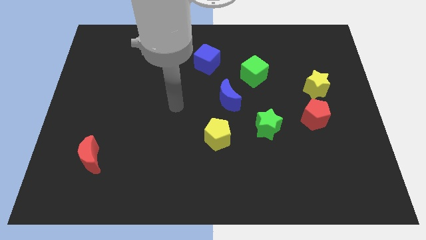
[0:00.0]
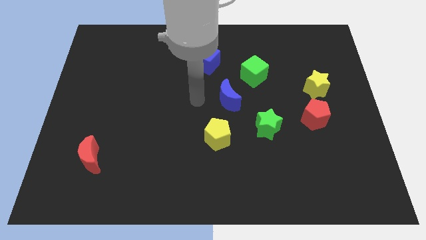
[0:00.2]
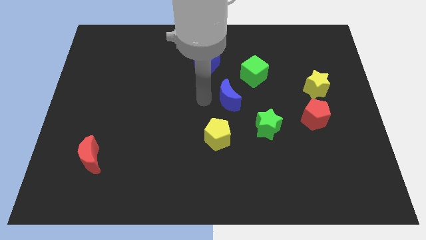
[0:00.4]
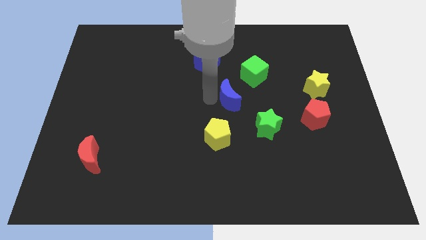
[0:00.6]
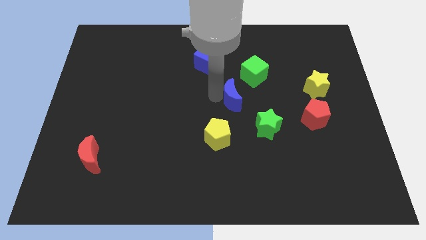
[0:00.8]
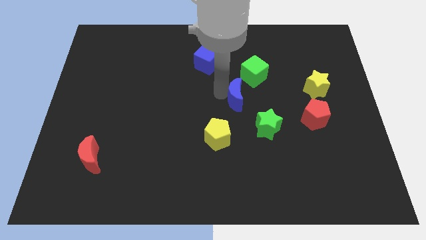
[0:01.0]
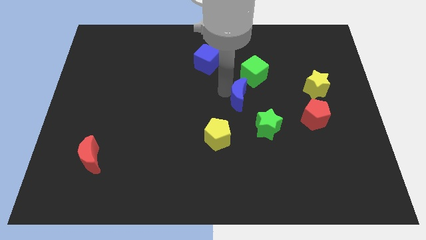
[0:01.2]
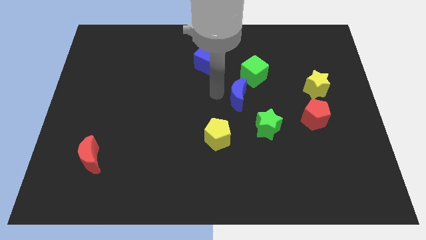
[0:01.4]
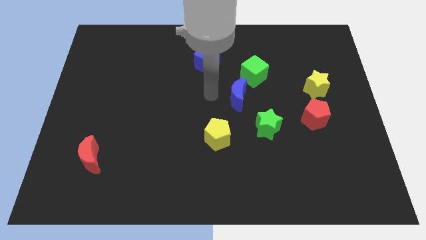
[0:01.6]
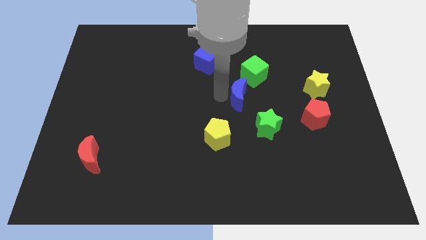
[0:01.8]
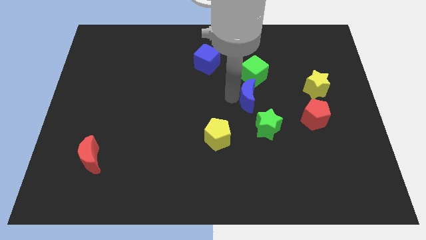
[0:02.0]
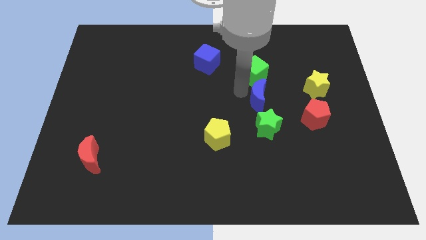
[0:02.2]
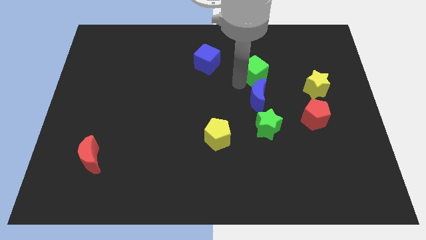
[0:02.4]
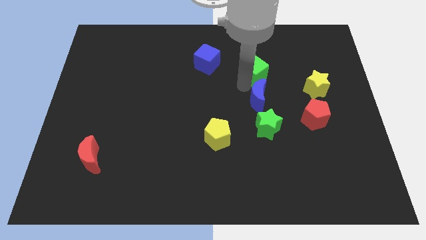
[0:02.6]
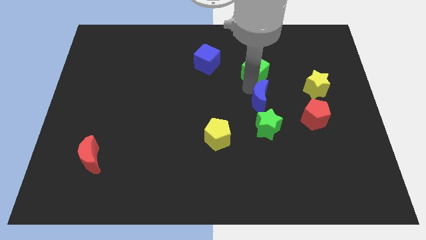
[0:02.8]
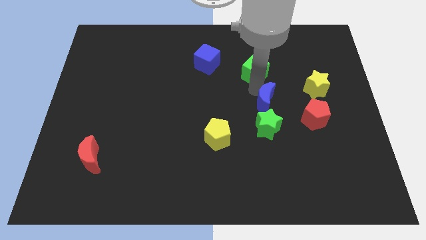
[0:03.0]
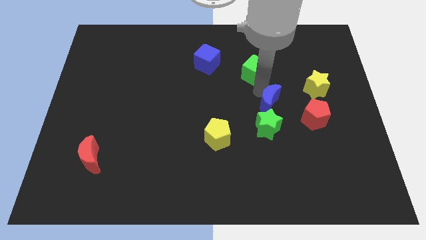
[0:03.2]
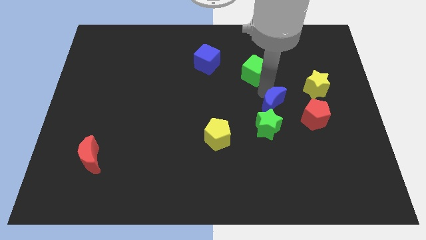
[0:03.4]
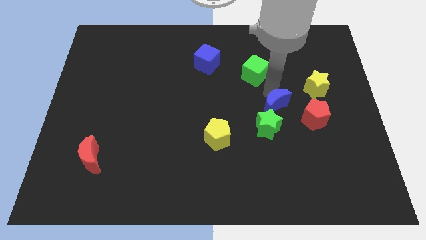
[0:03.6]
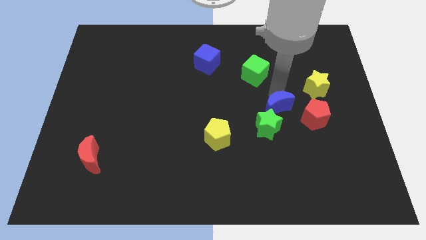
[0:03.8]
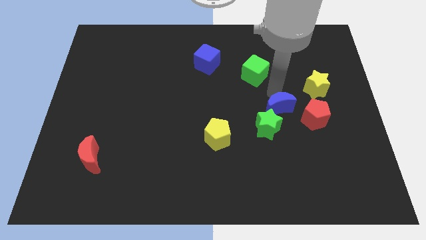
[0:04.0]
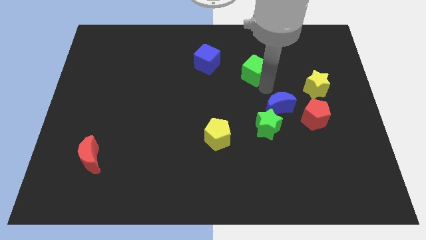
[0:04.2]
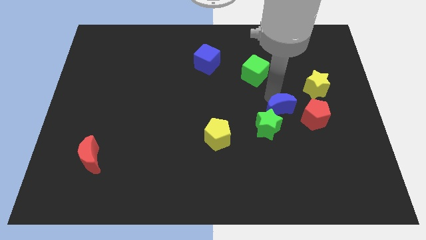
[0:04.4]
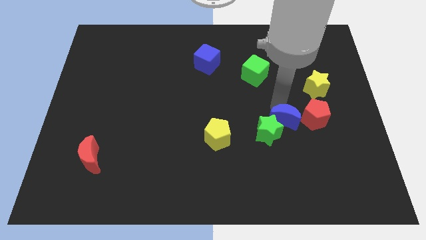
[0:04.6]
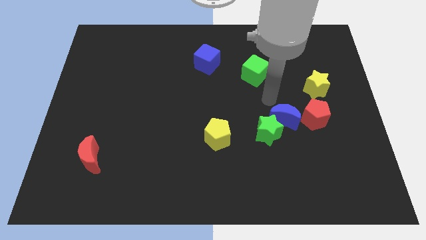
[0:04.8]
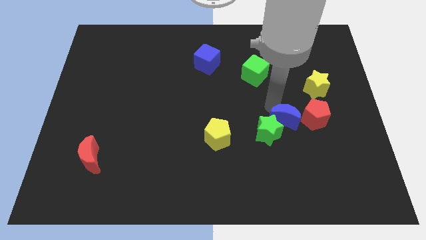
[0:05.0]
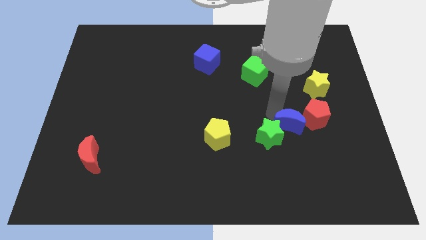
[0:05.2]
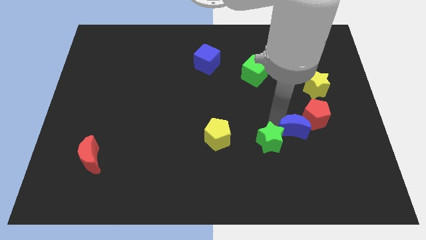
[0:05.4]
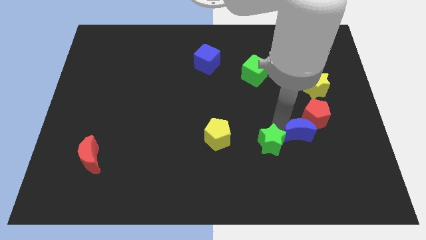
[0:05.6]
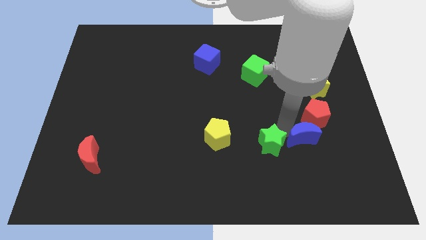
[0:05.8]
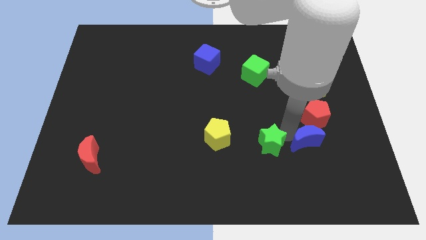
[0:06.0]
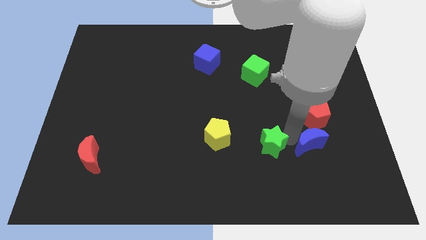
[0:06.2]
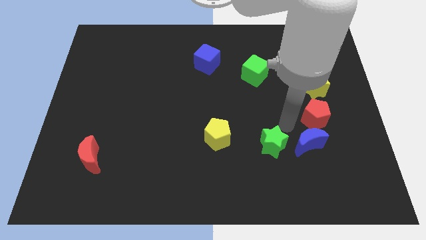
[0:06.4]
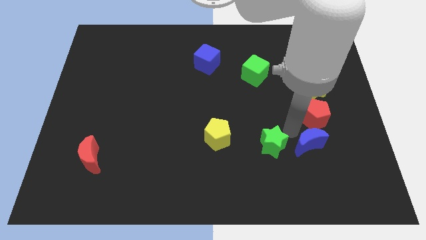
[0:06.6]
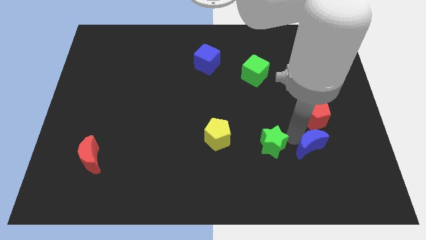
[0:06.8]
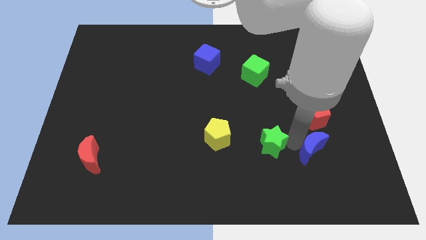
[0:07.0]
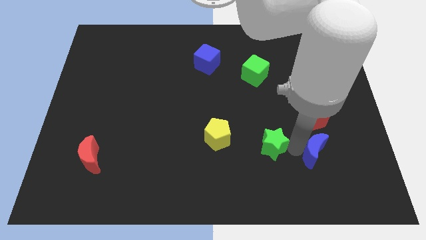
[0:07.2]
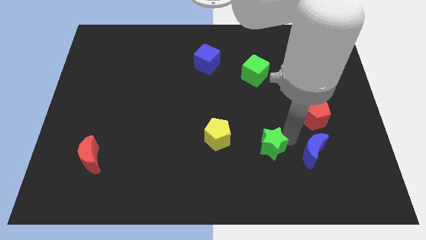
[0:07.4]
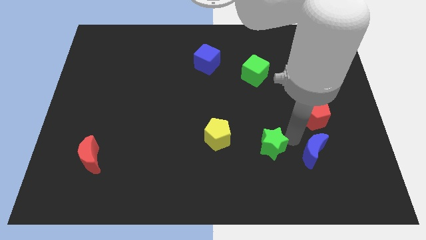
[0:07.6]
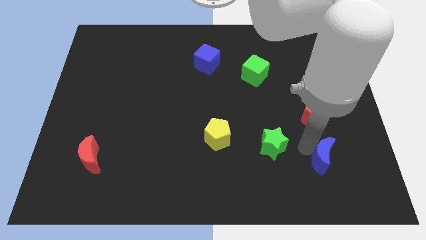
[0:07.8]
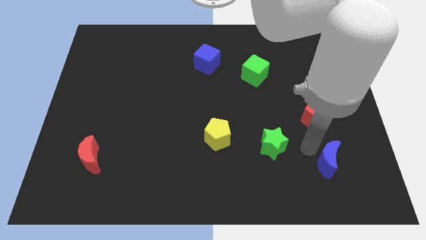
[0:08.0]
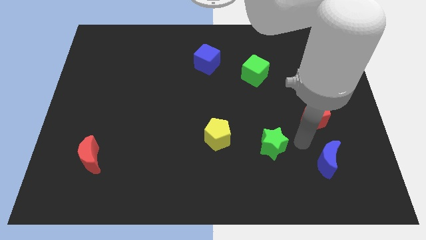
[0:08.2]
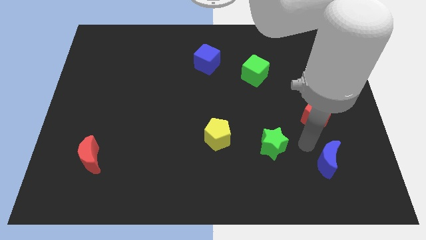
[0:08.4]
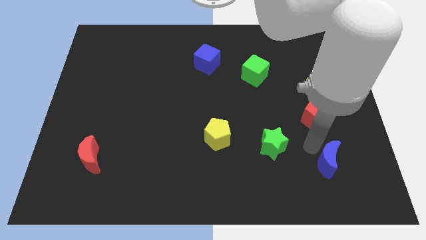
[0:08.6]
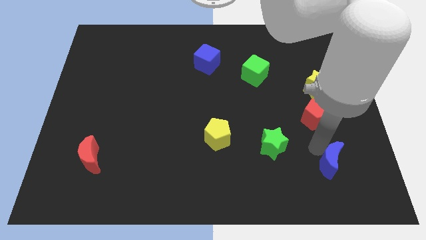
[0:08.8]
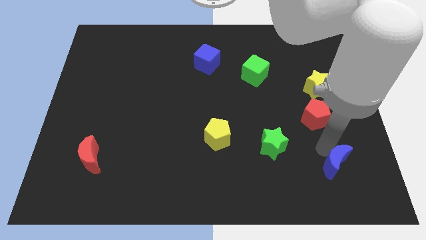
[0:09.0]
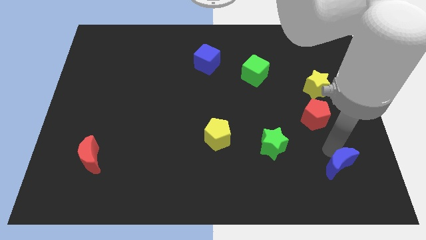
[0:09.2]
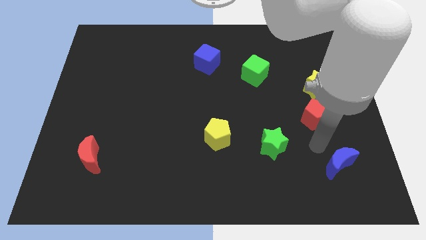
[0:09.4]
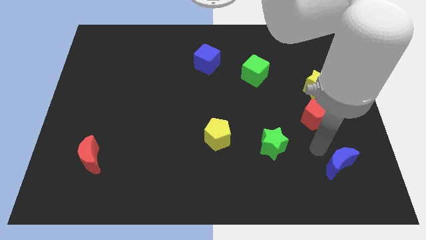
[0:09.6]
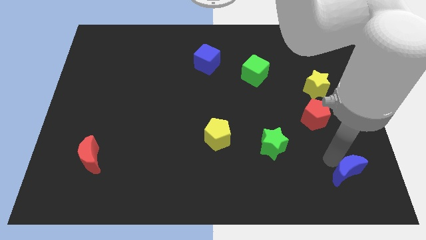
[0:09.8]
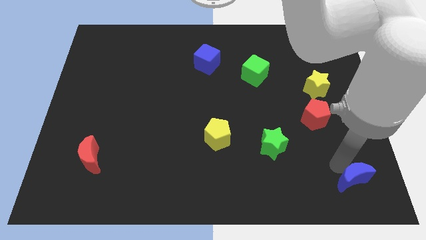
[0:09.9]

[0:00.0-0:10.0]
slide the blue moon to the lower right corner

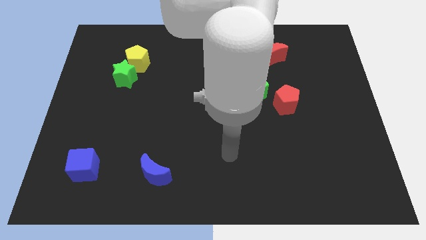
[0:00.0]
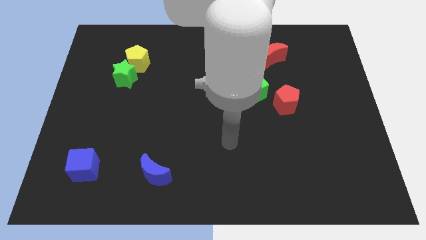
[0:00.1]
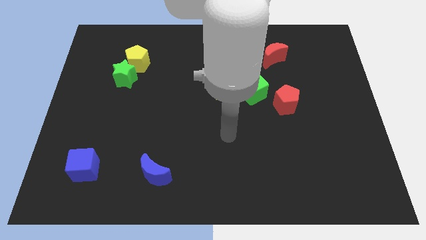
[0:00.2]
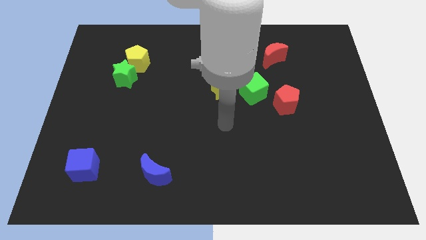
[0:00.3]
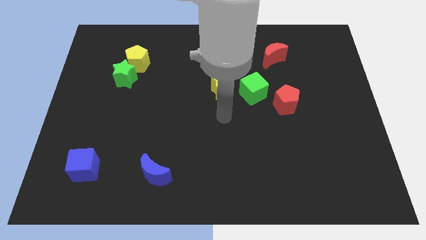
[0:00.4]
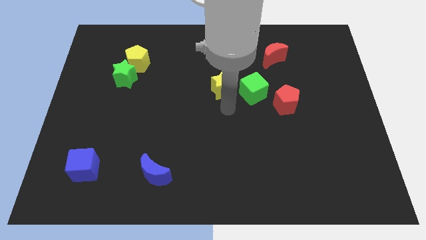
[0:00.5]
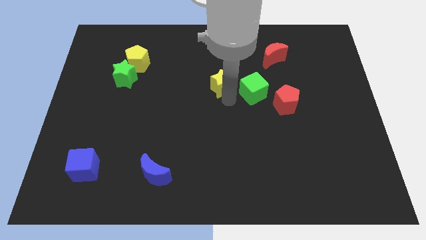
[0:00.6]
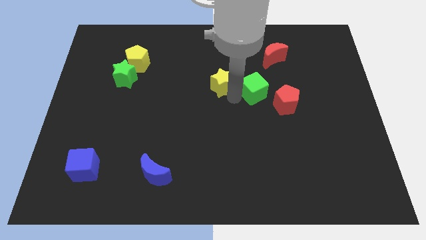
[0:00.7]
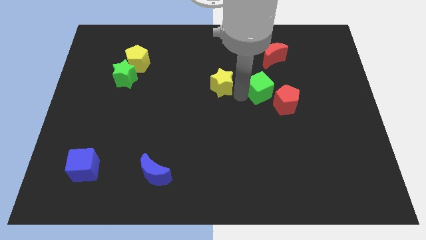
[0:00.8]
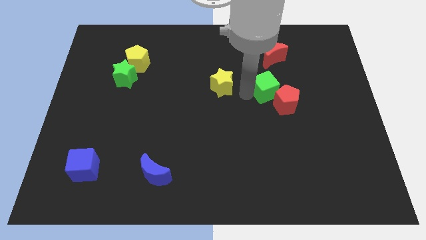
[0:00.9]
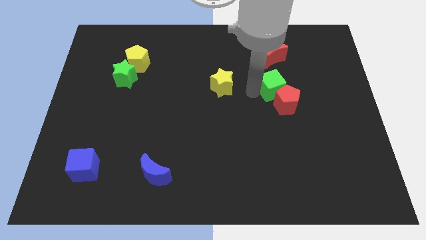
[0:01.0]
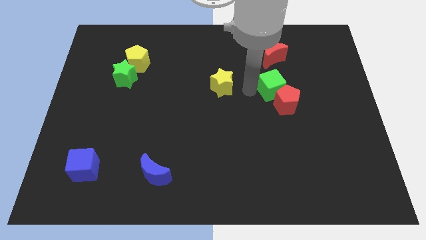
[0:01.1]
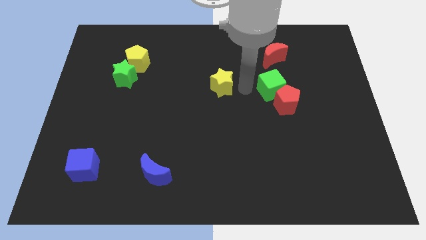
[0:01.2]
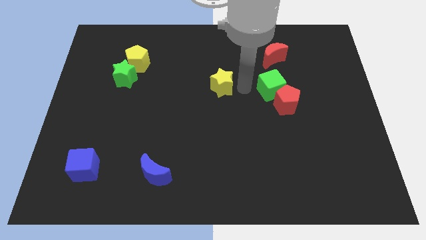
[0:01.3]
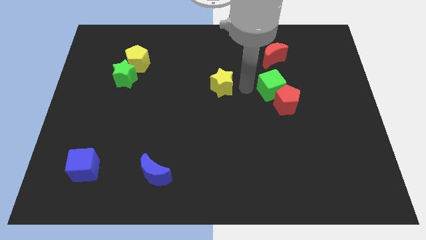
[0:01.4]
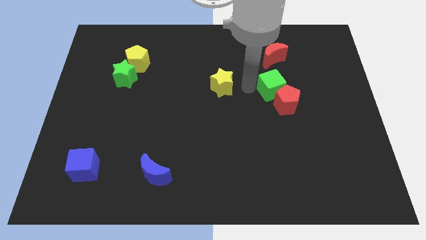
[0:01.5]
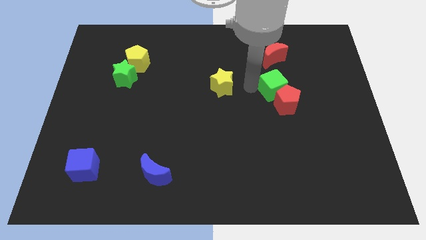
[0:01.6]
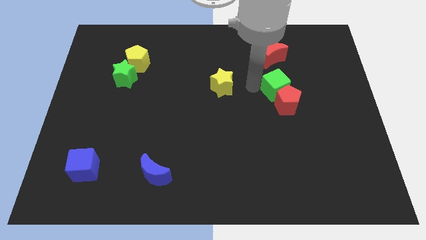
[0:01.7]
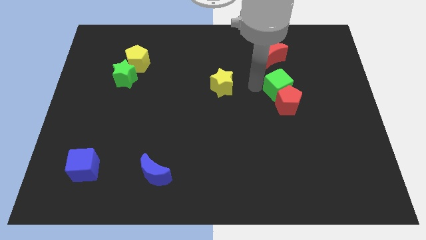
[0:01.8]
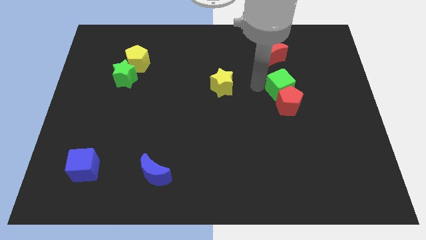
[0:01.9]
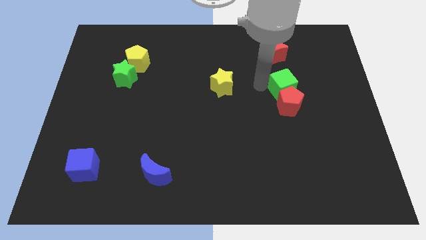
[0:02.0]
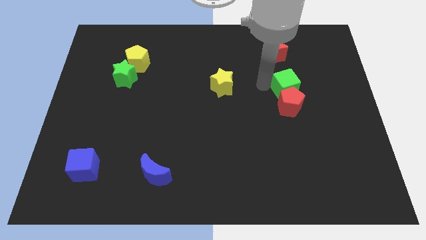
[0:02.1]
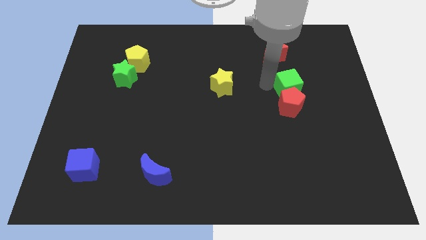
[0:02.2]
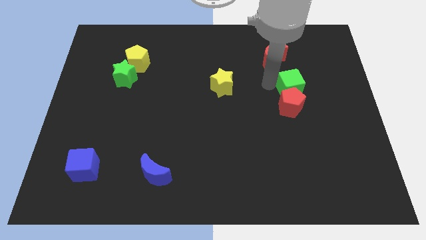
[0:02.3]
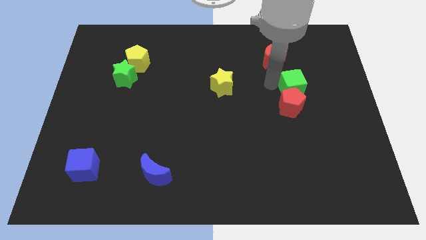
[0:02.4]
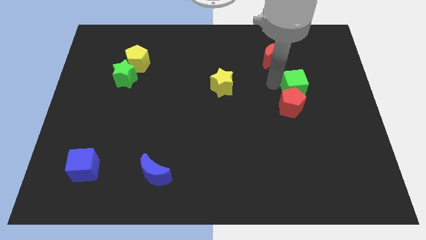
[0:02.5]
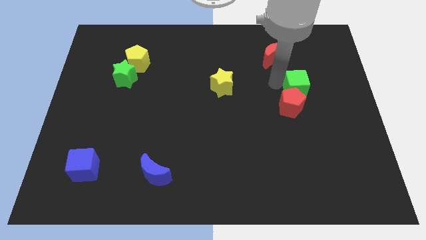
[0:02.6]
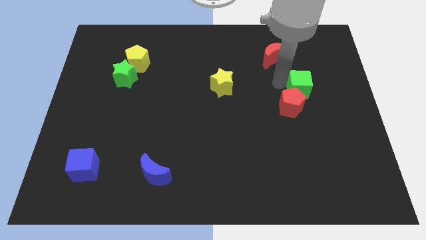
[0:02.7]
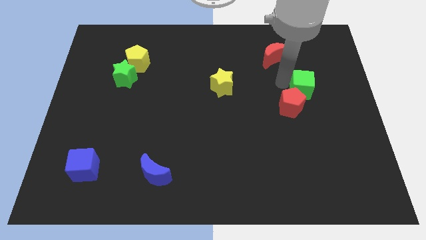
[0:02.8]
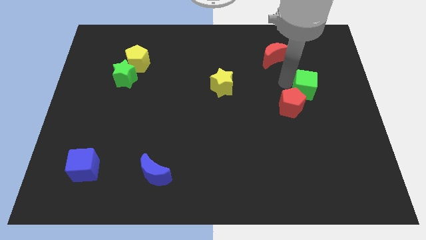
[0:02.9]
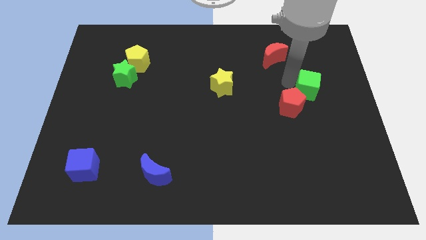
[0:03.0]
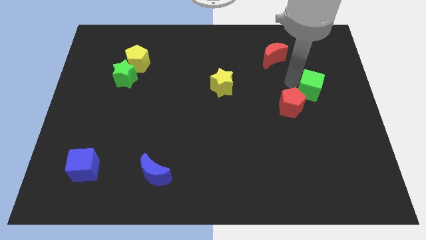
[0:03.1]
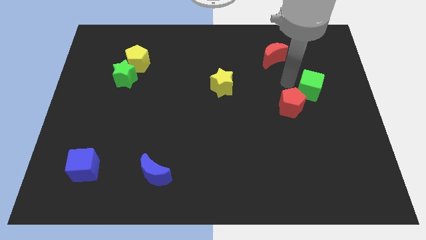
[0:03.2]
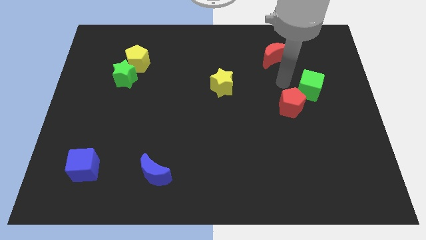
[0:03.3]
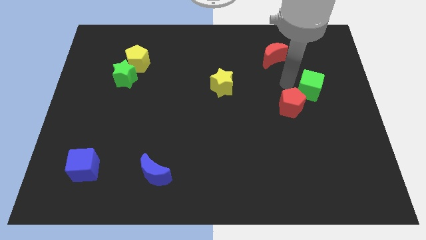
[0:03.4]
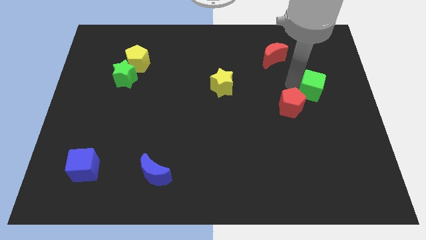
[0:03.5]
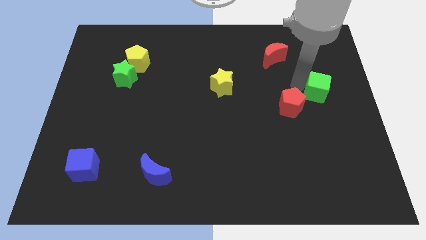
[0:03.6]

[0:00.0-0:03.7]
slide the green cube to the center right
